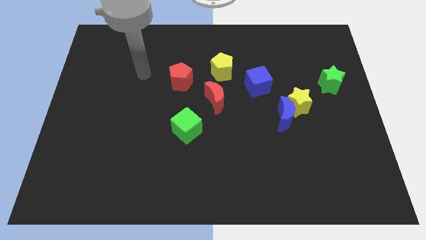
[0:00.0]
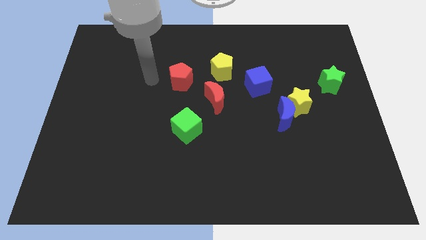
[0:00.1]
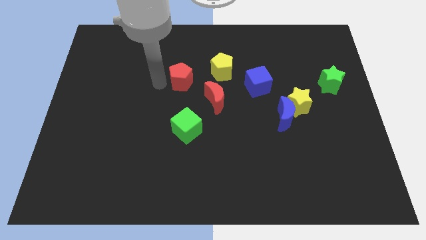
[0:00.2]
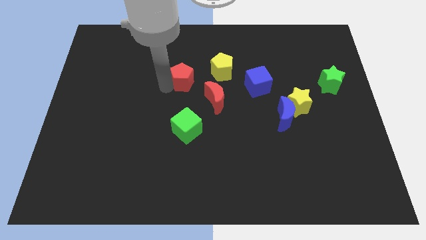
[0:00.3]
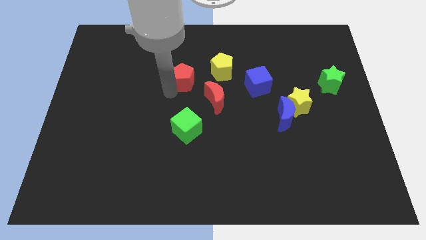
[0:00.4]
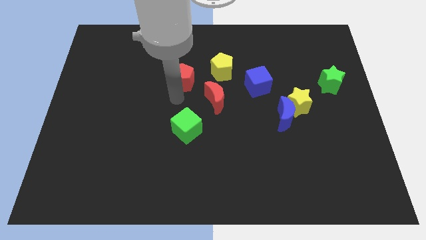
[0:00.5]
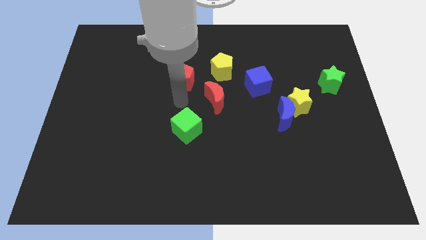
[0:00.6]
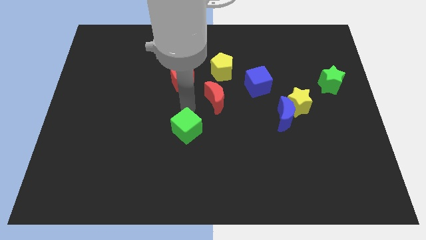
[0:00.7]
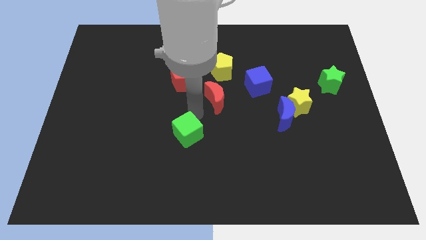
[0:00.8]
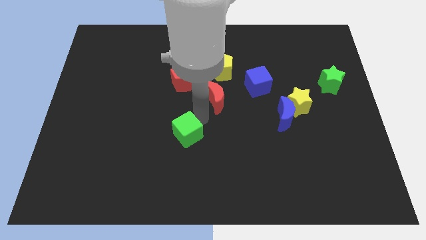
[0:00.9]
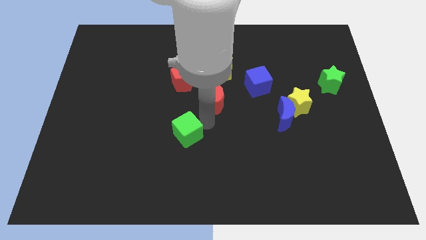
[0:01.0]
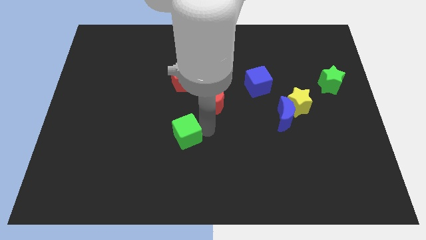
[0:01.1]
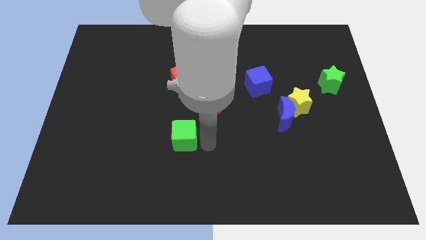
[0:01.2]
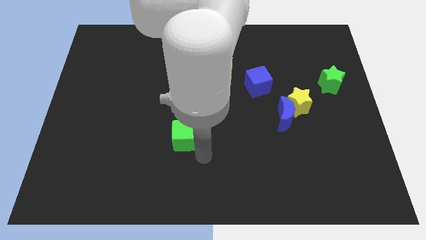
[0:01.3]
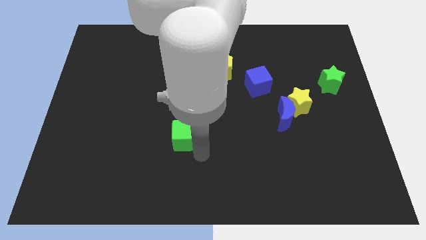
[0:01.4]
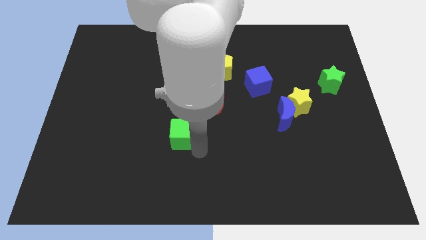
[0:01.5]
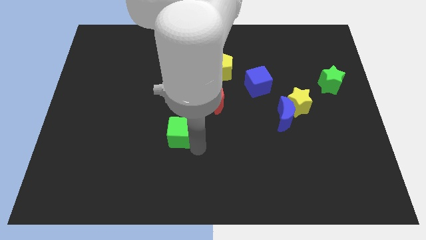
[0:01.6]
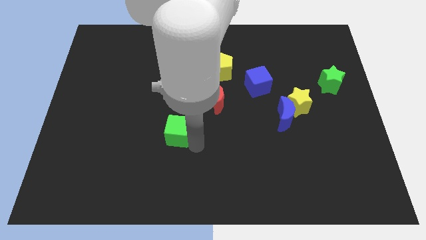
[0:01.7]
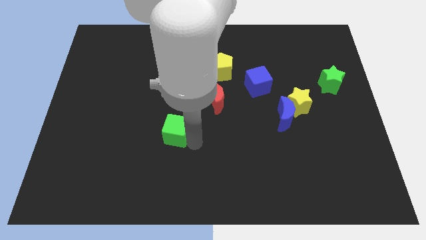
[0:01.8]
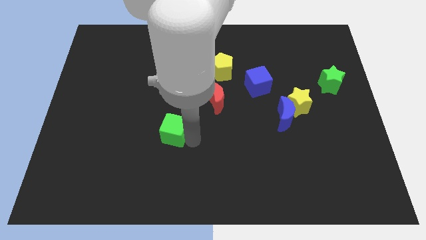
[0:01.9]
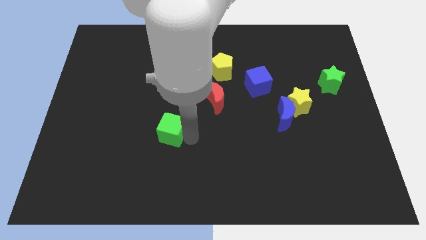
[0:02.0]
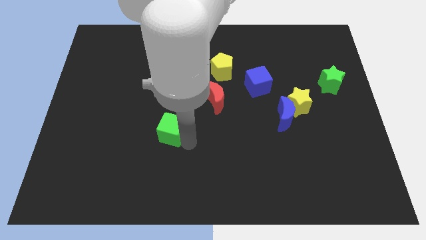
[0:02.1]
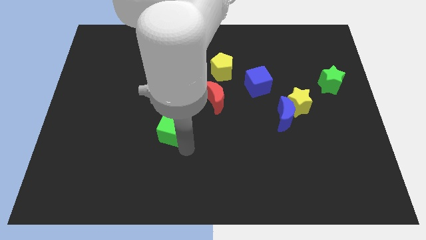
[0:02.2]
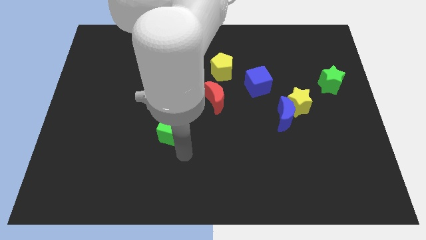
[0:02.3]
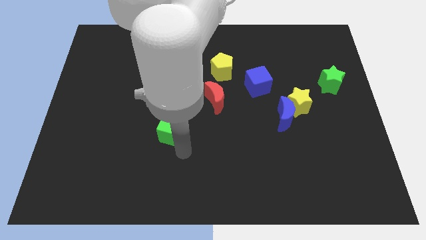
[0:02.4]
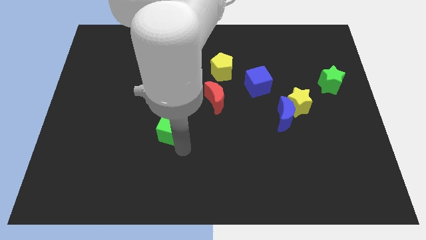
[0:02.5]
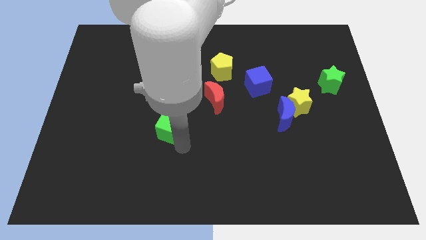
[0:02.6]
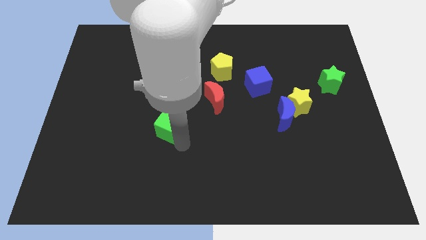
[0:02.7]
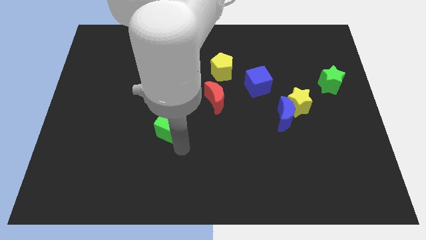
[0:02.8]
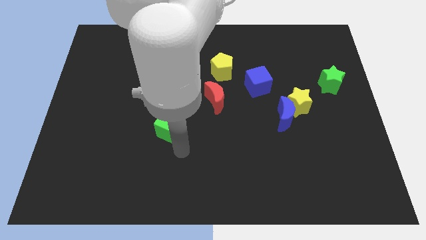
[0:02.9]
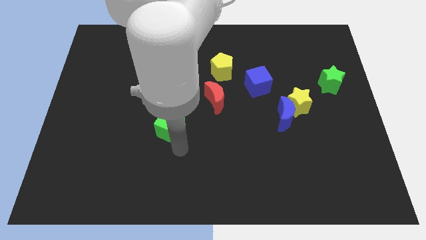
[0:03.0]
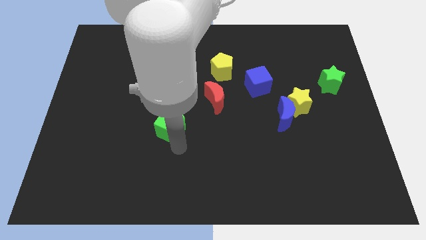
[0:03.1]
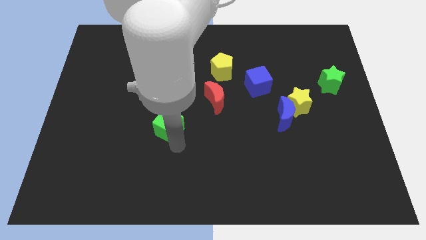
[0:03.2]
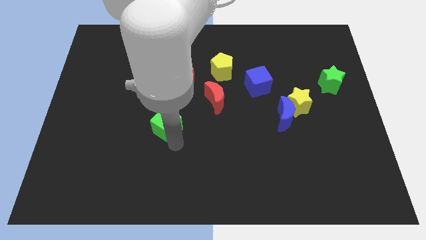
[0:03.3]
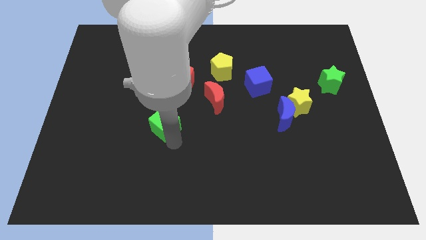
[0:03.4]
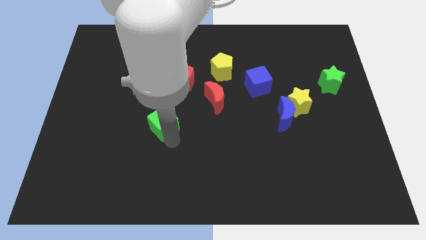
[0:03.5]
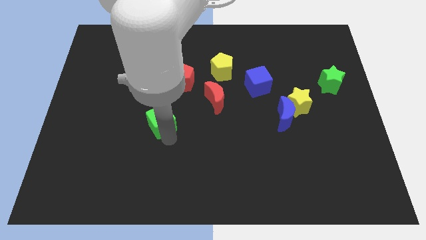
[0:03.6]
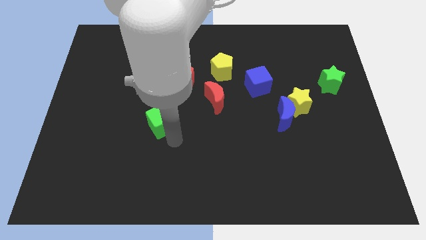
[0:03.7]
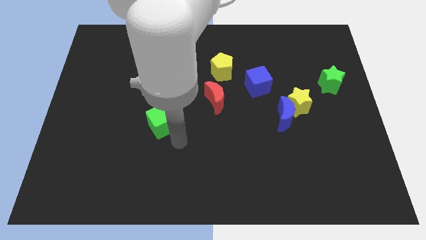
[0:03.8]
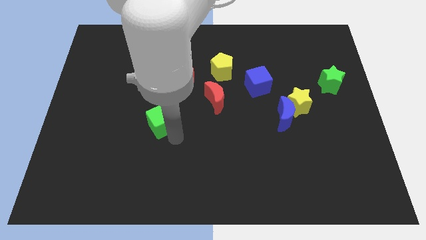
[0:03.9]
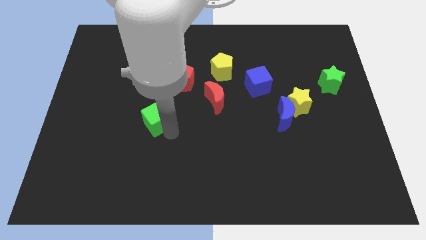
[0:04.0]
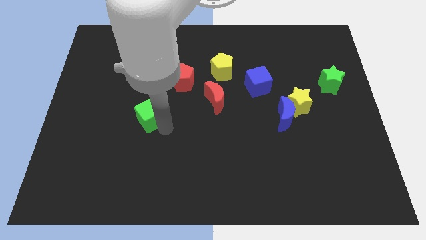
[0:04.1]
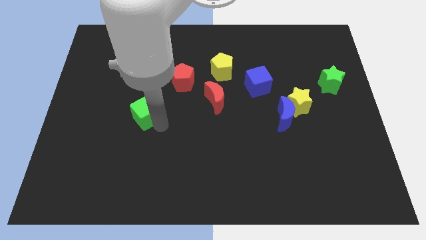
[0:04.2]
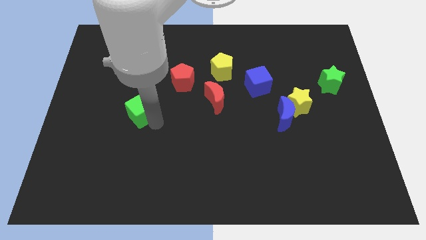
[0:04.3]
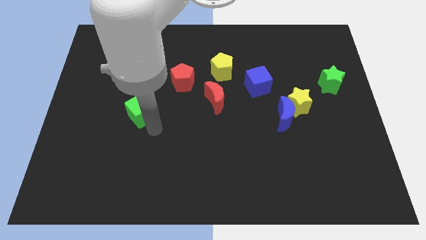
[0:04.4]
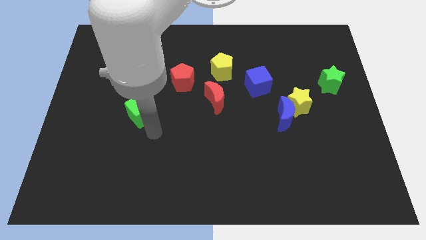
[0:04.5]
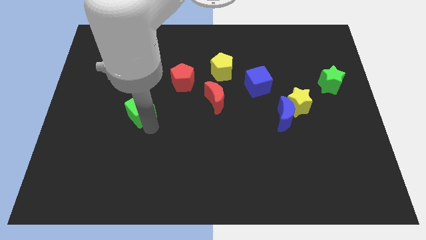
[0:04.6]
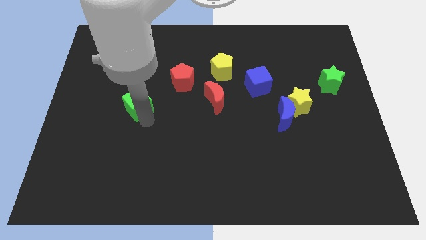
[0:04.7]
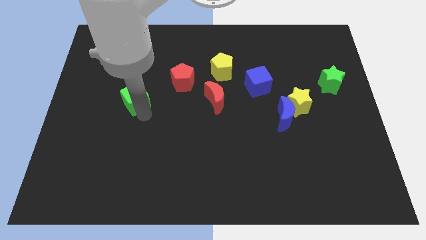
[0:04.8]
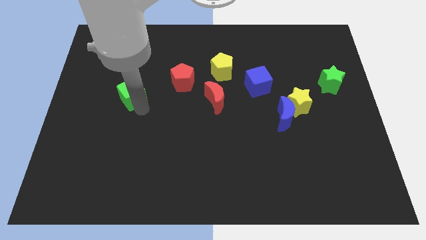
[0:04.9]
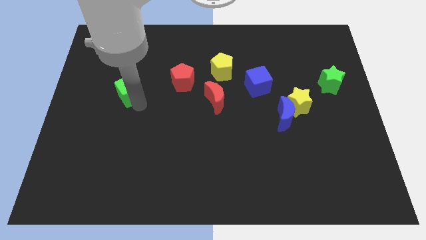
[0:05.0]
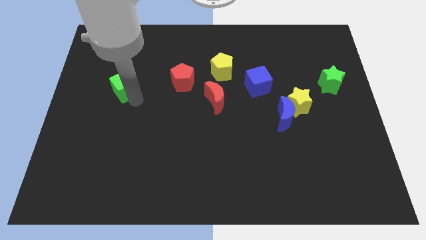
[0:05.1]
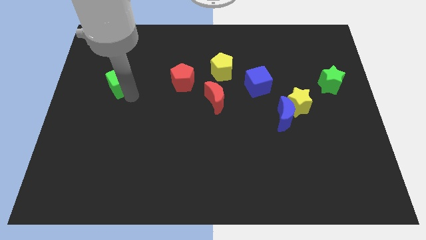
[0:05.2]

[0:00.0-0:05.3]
push the green cube diagonally upwards and left

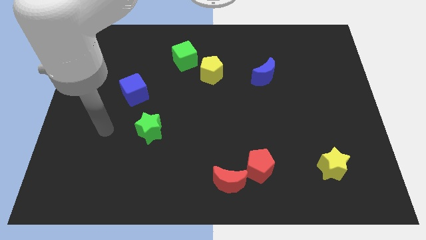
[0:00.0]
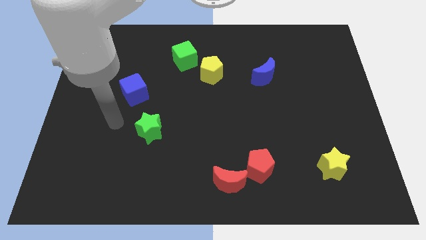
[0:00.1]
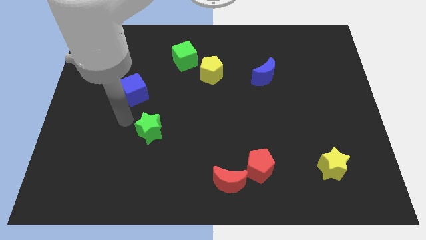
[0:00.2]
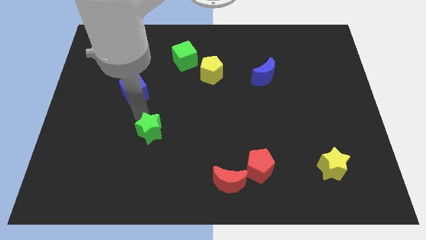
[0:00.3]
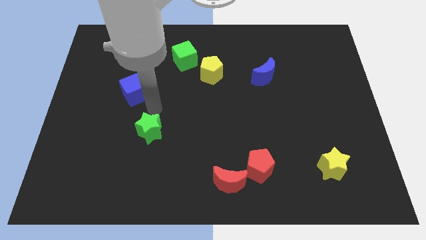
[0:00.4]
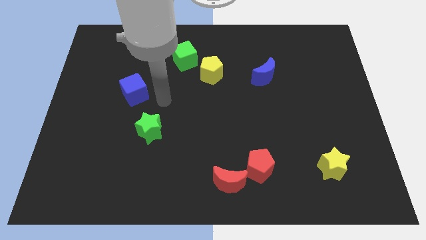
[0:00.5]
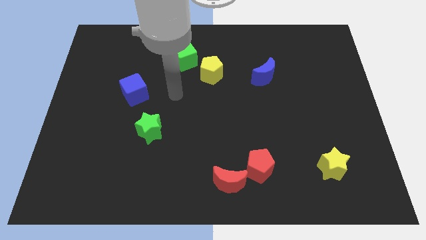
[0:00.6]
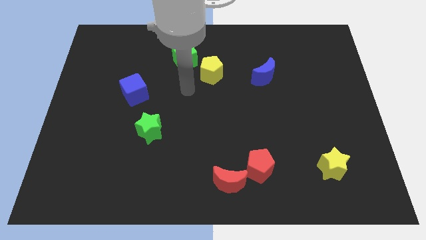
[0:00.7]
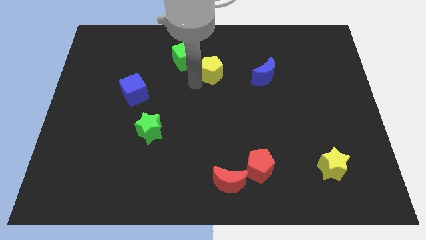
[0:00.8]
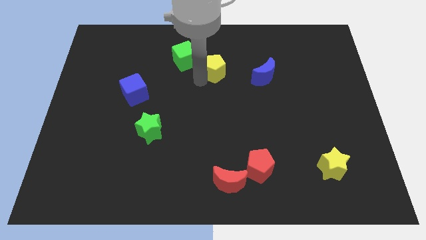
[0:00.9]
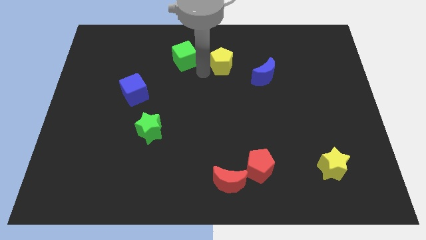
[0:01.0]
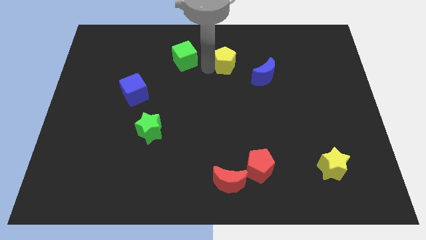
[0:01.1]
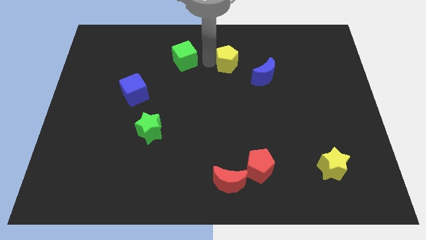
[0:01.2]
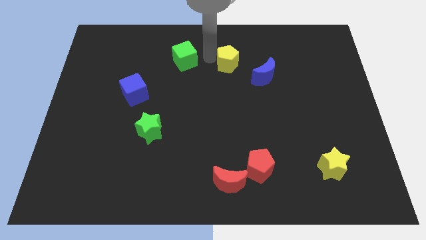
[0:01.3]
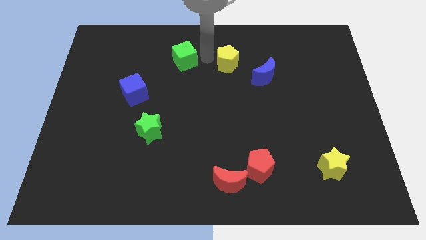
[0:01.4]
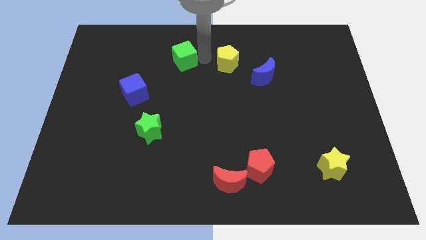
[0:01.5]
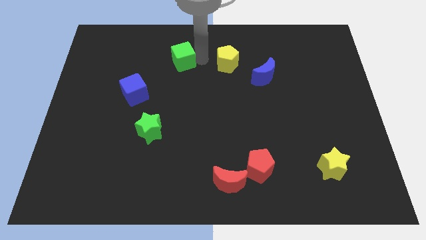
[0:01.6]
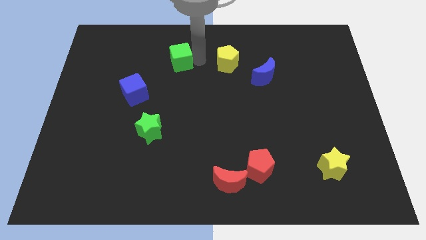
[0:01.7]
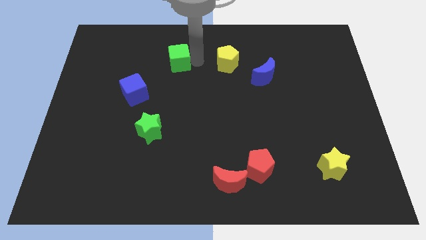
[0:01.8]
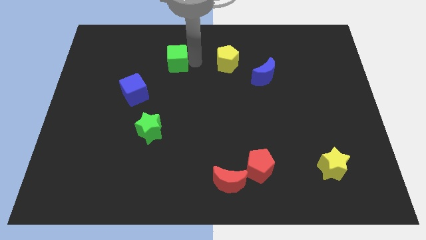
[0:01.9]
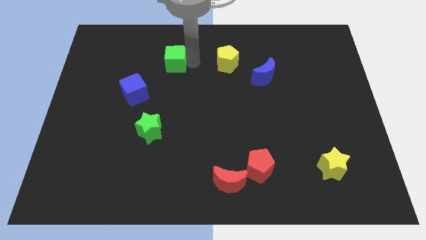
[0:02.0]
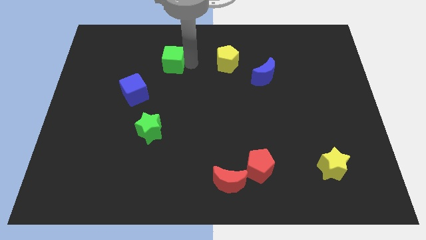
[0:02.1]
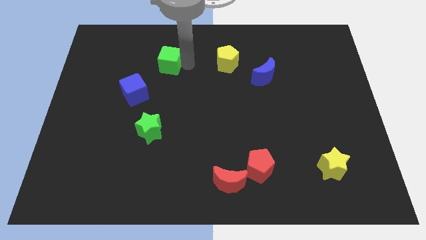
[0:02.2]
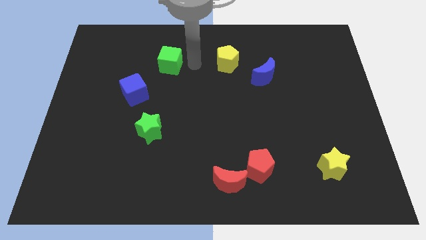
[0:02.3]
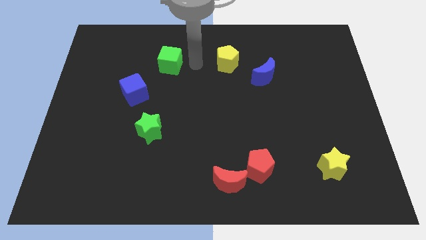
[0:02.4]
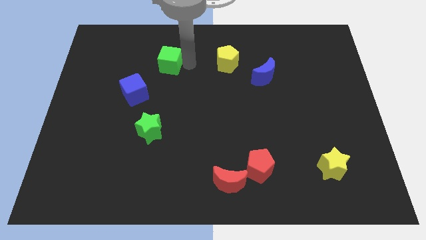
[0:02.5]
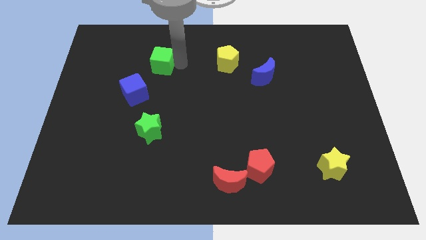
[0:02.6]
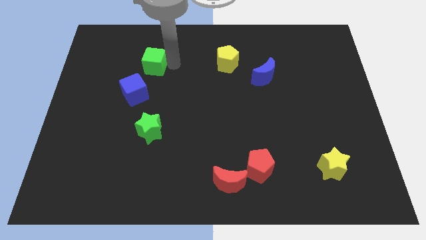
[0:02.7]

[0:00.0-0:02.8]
slightly slide the green cube to the left
